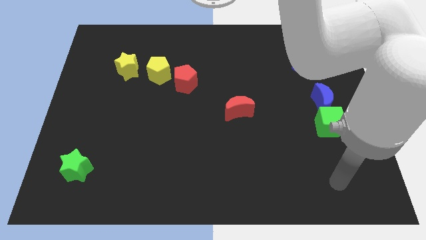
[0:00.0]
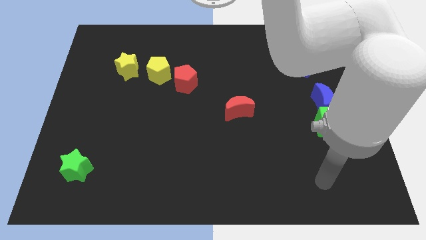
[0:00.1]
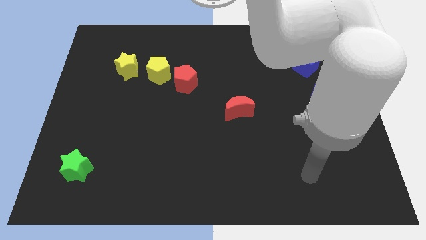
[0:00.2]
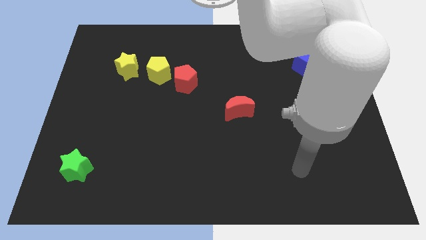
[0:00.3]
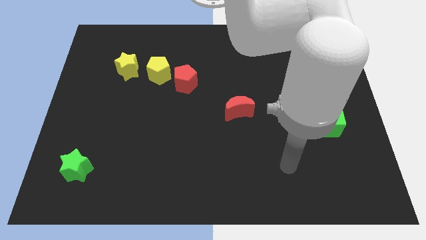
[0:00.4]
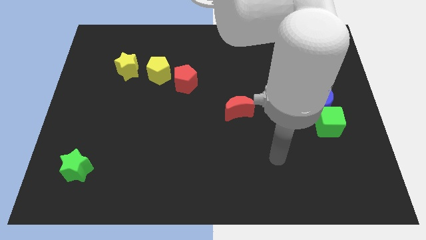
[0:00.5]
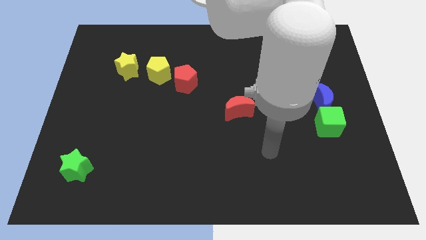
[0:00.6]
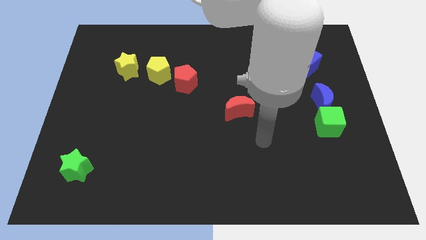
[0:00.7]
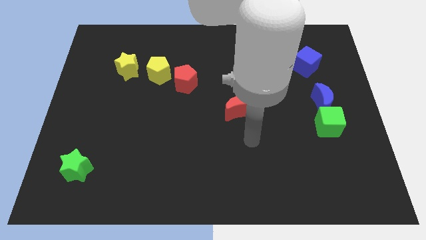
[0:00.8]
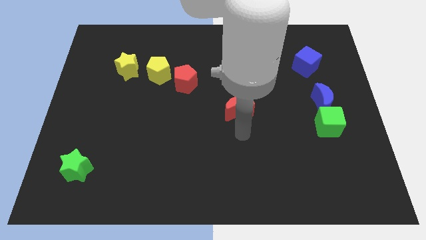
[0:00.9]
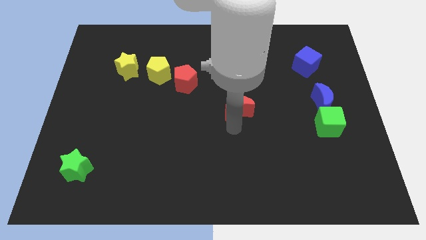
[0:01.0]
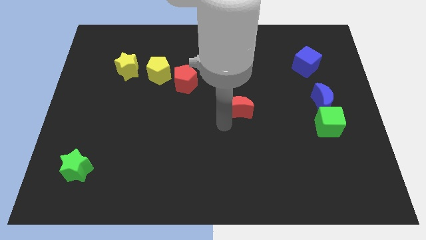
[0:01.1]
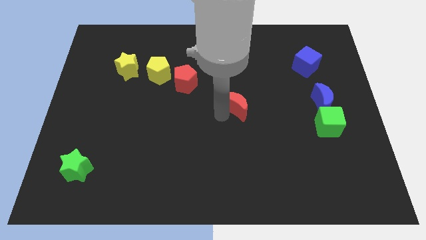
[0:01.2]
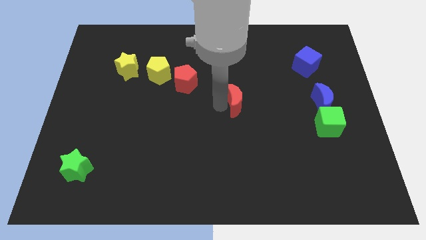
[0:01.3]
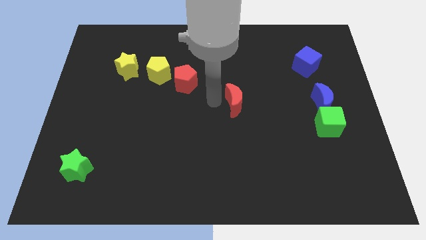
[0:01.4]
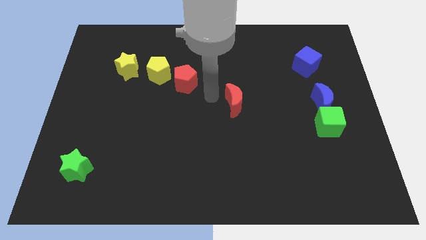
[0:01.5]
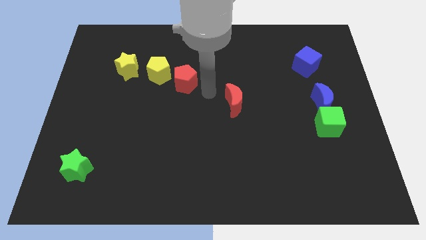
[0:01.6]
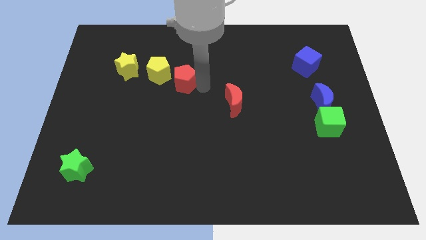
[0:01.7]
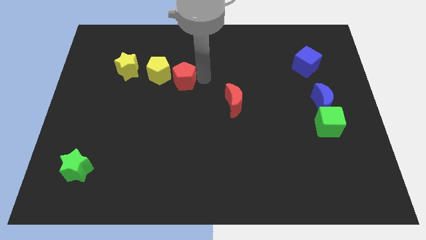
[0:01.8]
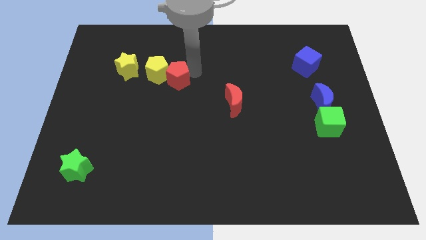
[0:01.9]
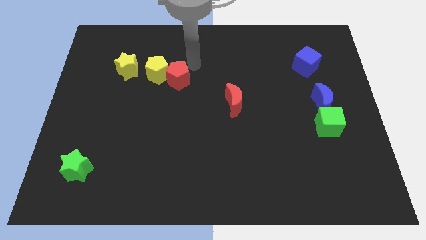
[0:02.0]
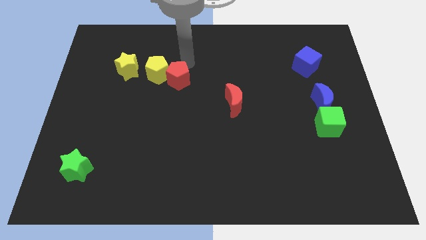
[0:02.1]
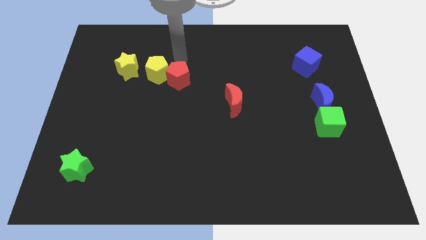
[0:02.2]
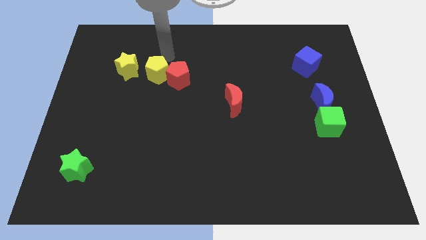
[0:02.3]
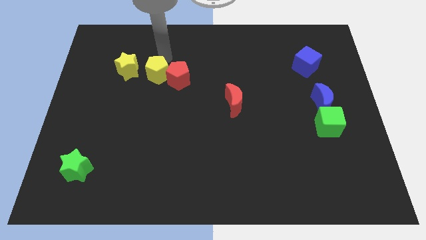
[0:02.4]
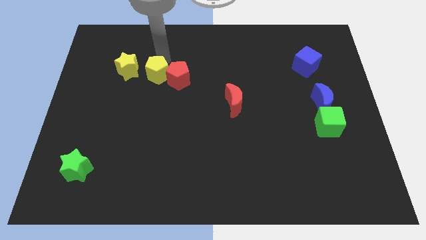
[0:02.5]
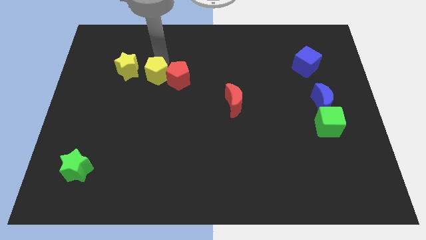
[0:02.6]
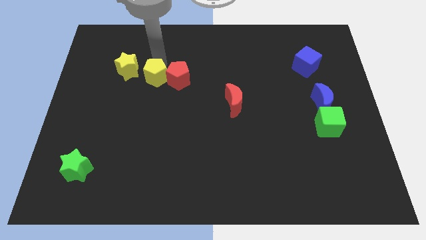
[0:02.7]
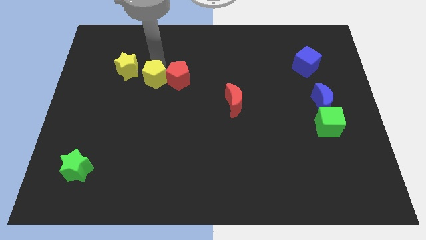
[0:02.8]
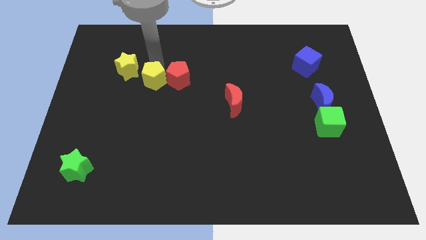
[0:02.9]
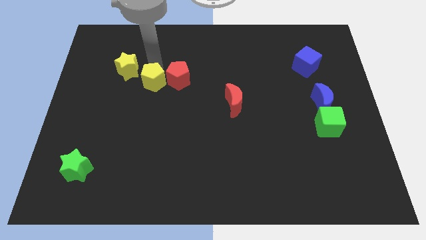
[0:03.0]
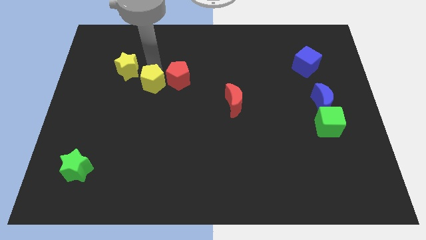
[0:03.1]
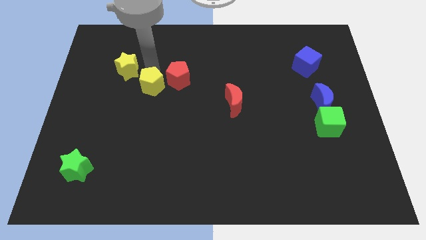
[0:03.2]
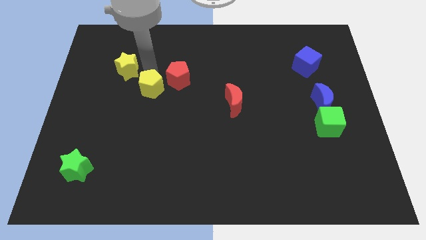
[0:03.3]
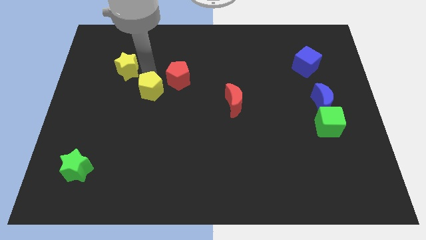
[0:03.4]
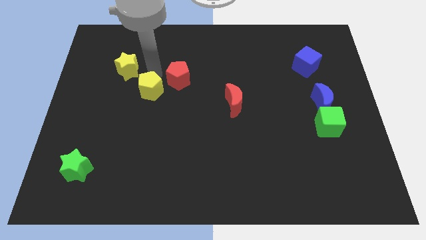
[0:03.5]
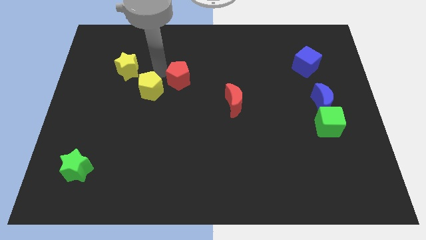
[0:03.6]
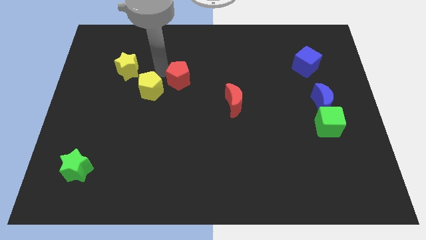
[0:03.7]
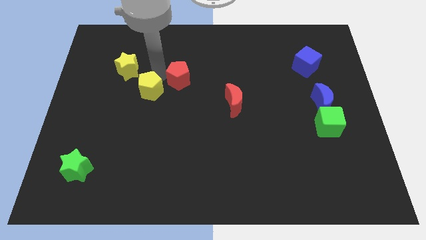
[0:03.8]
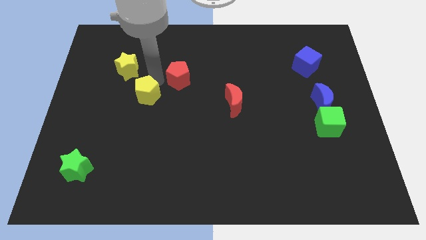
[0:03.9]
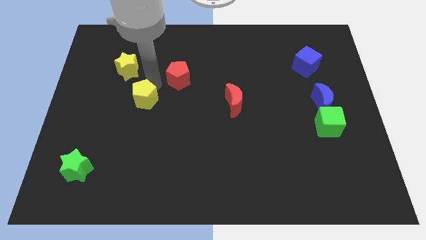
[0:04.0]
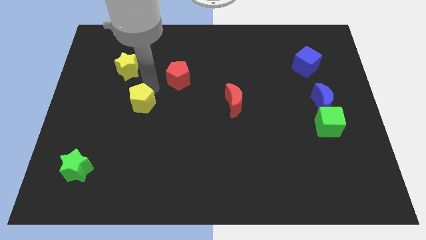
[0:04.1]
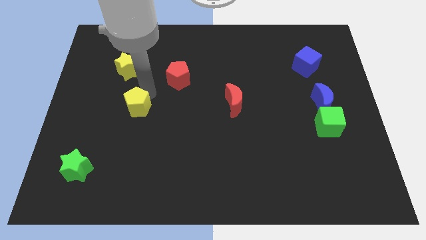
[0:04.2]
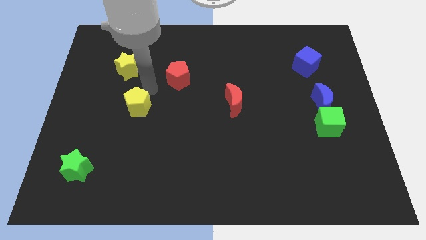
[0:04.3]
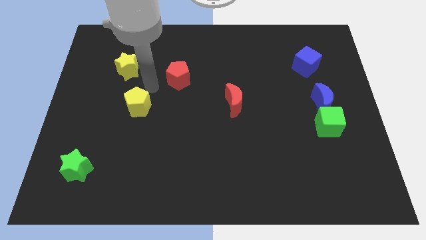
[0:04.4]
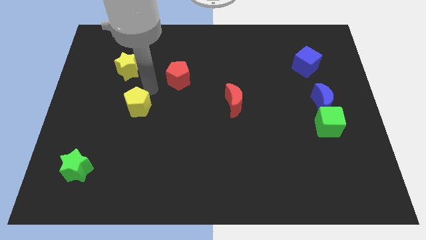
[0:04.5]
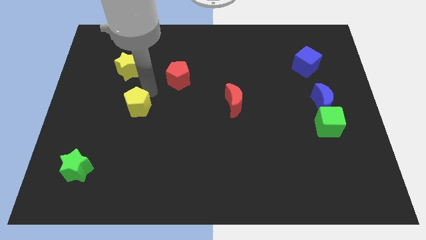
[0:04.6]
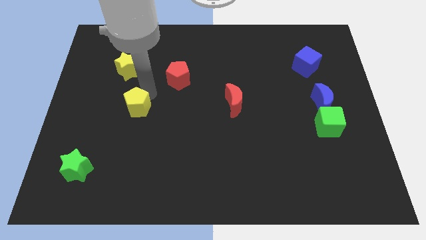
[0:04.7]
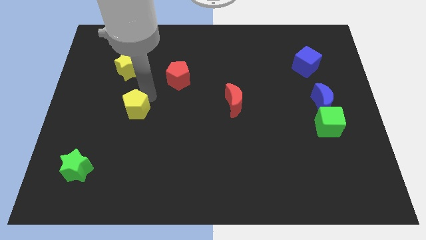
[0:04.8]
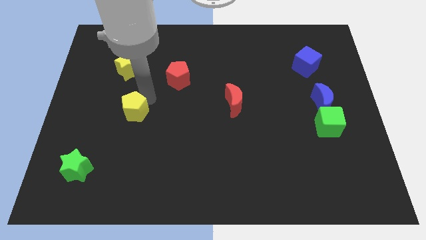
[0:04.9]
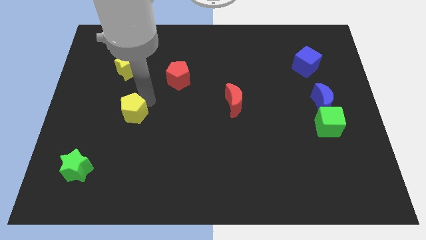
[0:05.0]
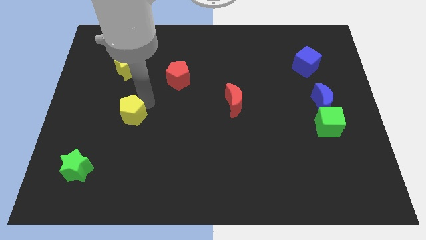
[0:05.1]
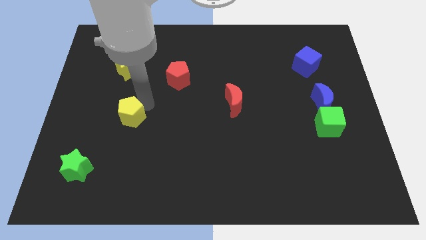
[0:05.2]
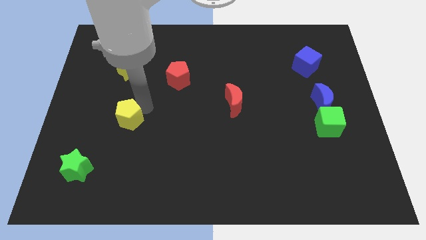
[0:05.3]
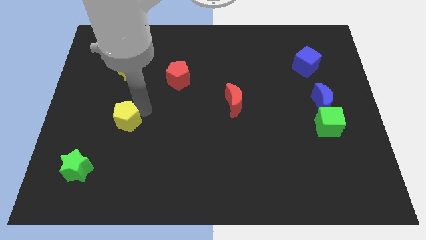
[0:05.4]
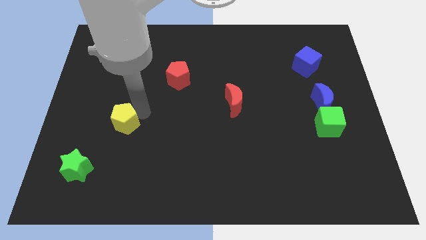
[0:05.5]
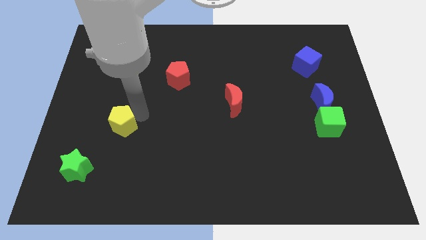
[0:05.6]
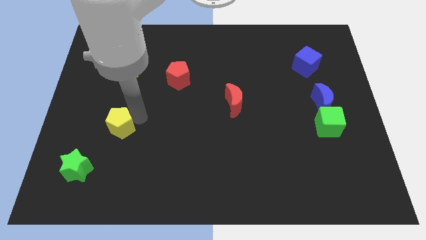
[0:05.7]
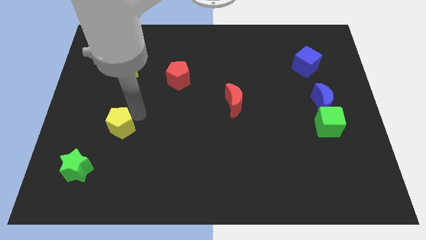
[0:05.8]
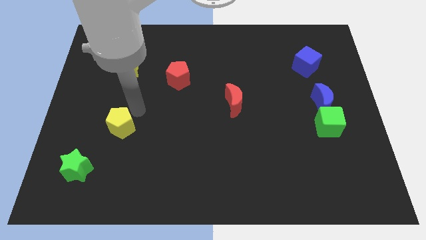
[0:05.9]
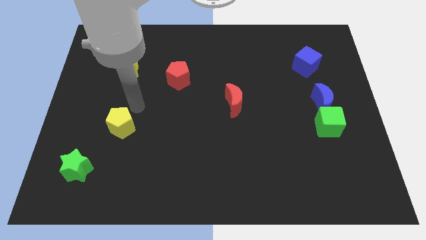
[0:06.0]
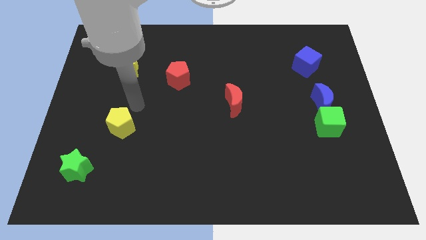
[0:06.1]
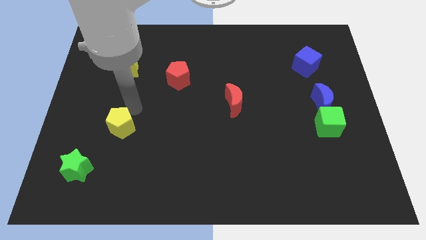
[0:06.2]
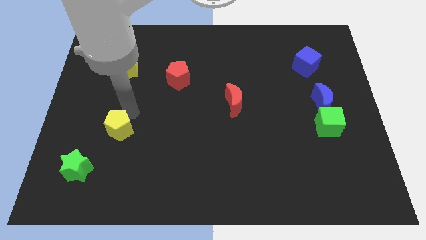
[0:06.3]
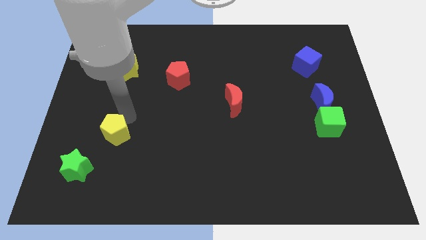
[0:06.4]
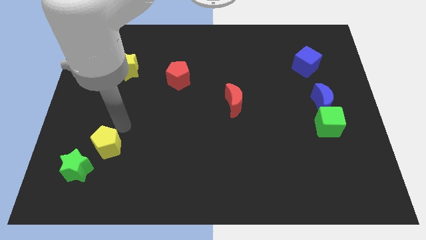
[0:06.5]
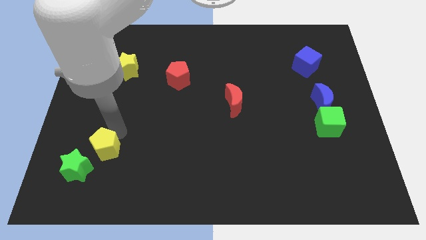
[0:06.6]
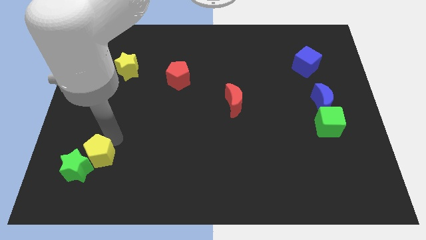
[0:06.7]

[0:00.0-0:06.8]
slide the yellow pentagon towards the green star

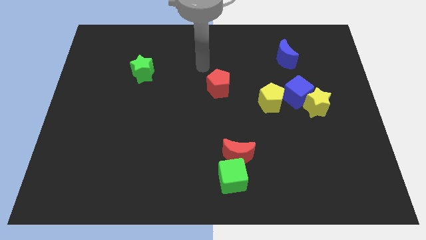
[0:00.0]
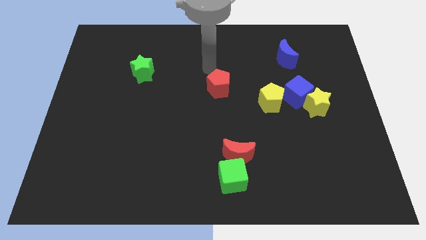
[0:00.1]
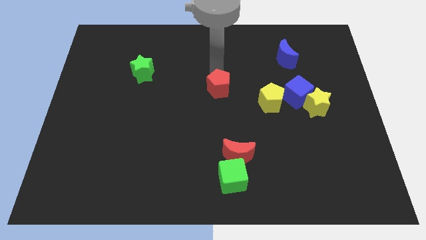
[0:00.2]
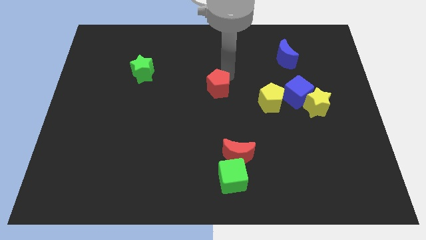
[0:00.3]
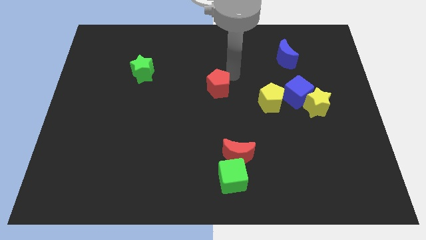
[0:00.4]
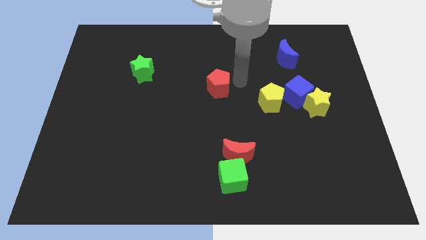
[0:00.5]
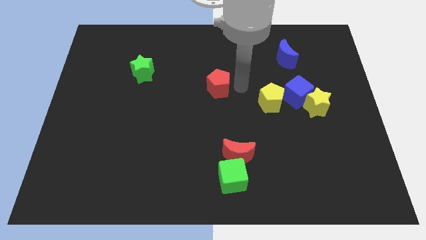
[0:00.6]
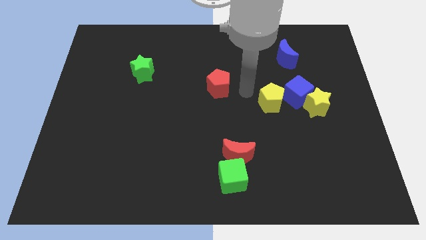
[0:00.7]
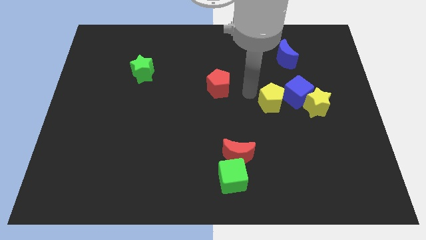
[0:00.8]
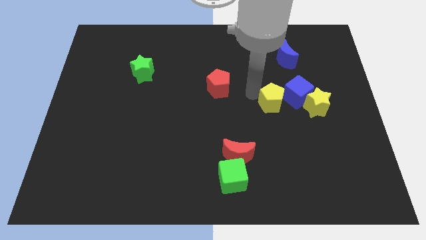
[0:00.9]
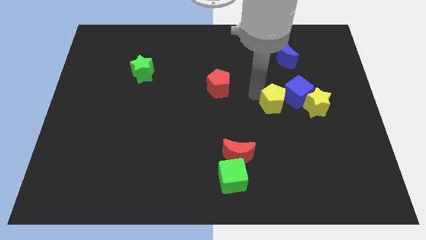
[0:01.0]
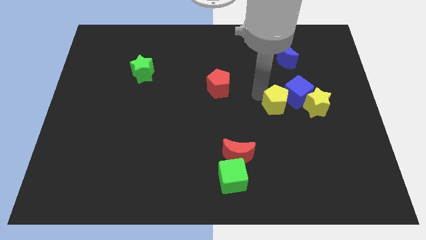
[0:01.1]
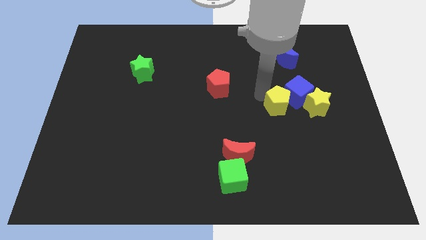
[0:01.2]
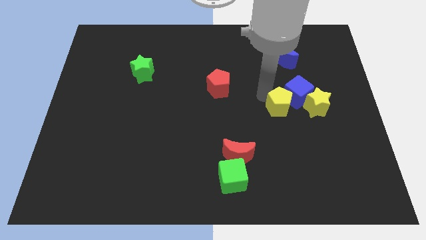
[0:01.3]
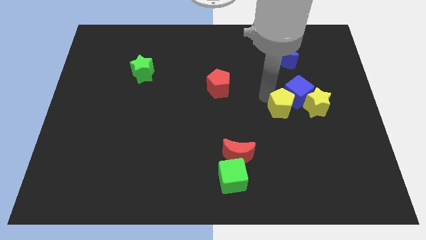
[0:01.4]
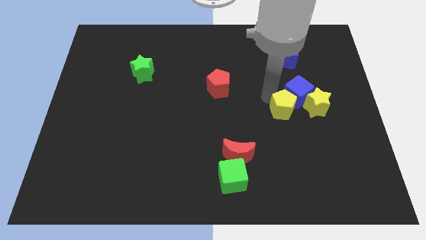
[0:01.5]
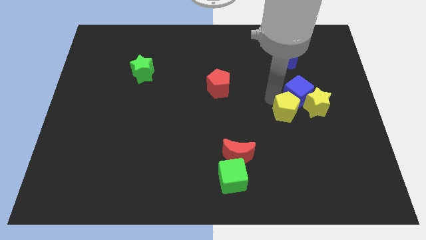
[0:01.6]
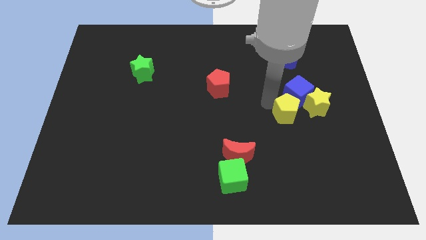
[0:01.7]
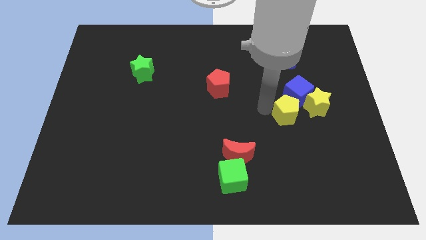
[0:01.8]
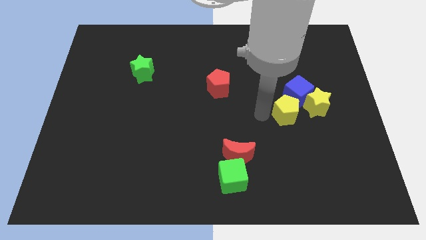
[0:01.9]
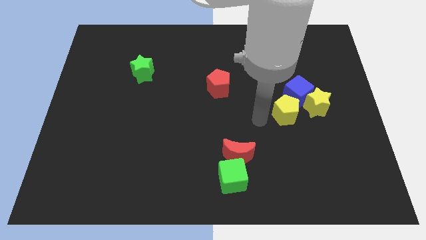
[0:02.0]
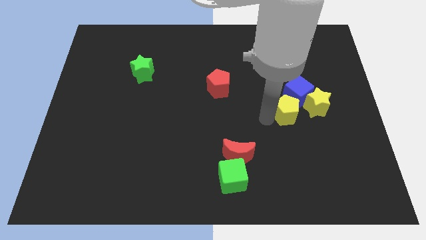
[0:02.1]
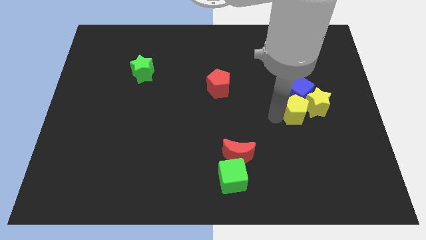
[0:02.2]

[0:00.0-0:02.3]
put the yellow pentagon next to the yellow star
